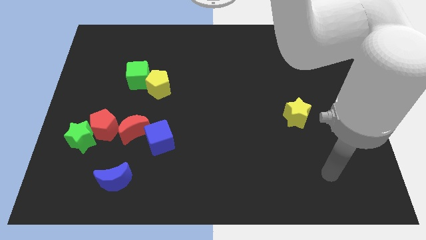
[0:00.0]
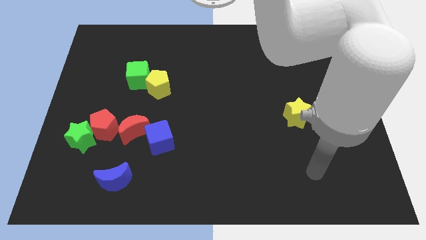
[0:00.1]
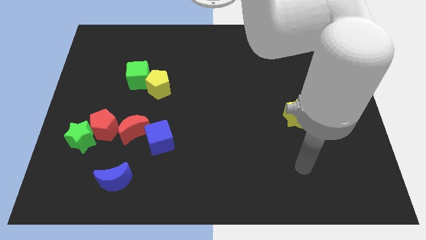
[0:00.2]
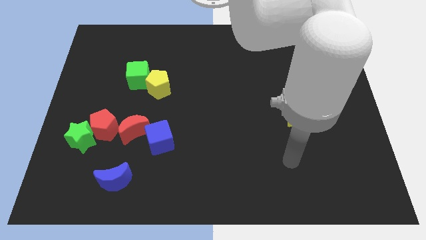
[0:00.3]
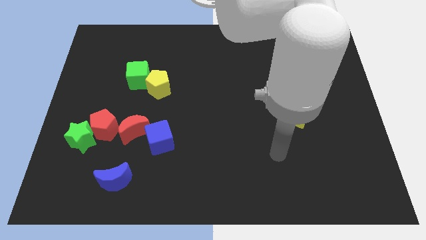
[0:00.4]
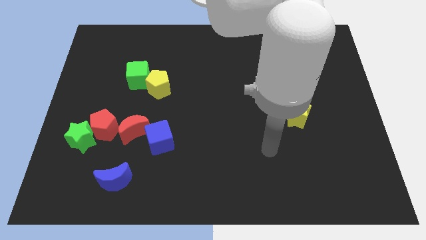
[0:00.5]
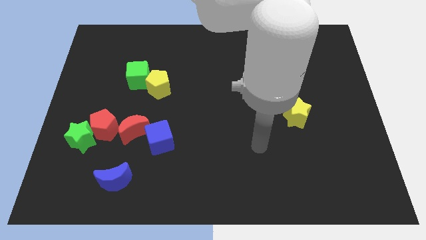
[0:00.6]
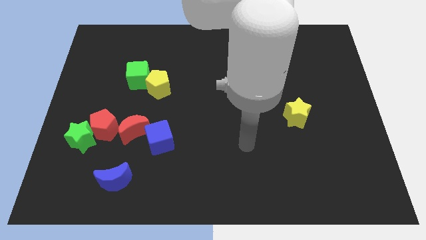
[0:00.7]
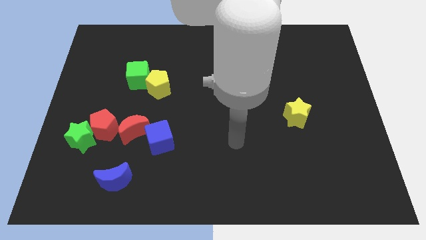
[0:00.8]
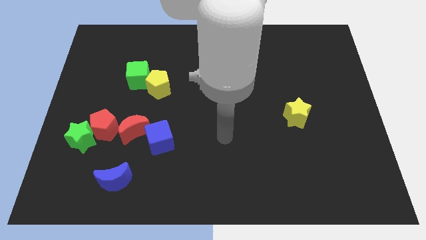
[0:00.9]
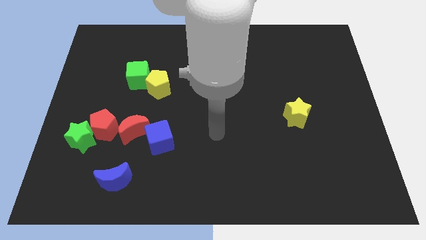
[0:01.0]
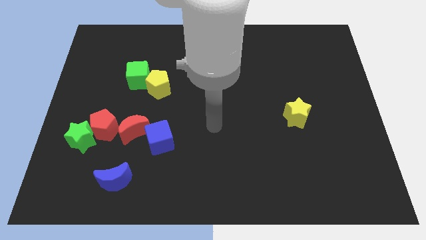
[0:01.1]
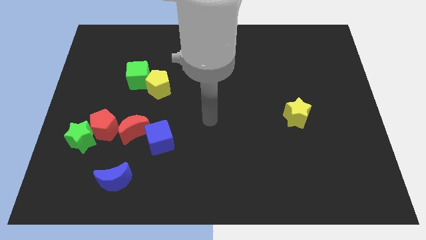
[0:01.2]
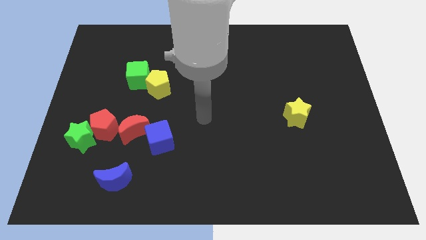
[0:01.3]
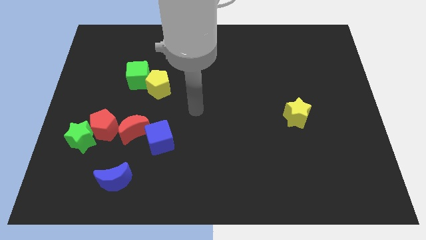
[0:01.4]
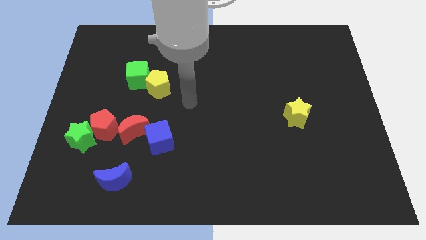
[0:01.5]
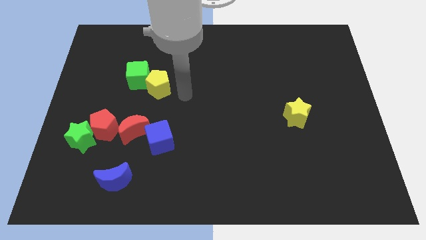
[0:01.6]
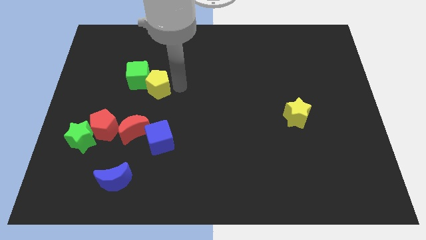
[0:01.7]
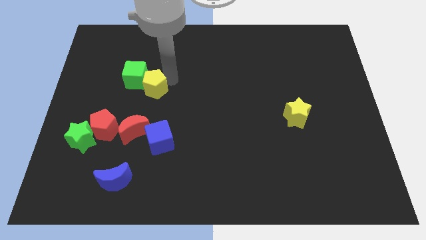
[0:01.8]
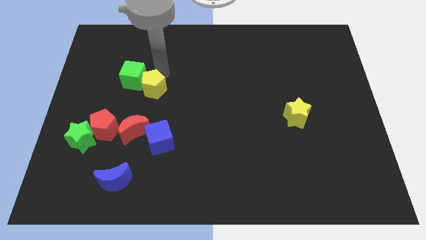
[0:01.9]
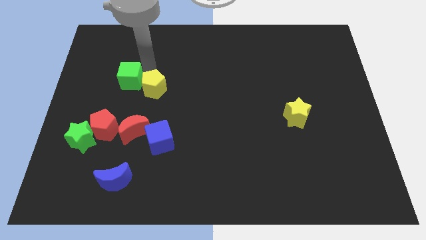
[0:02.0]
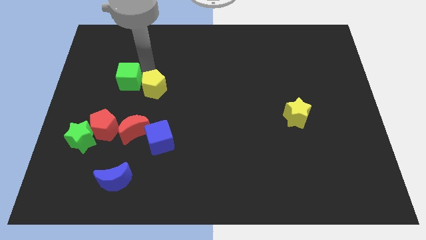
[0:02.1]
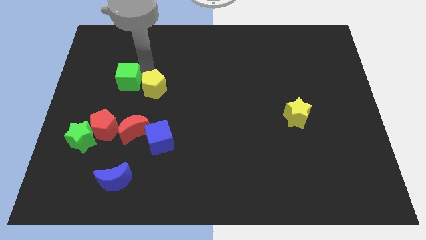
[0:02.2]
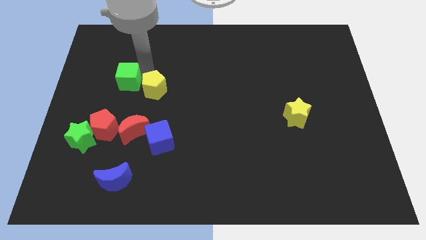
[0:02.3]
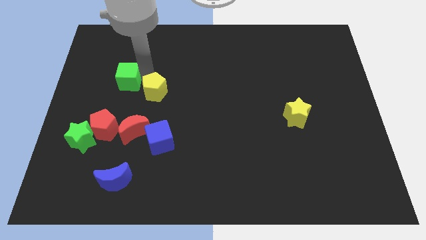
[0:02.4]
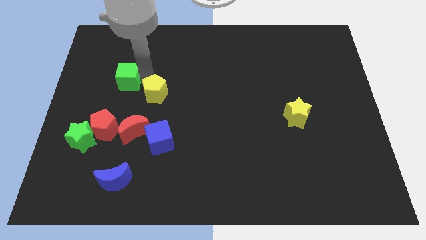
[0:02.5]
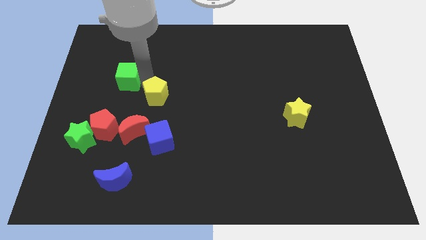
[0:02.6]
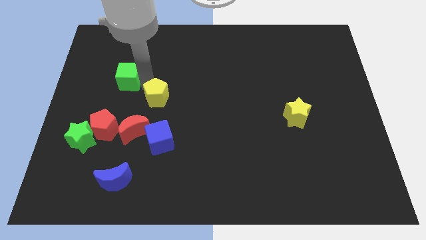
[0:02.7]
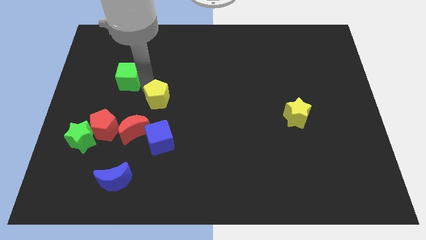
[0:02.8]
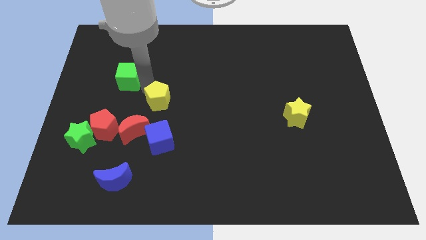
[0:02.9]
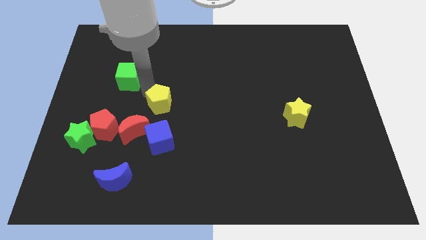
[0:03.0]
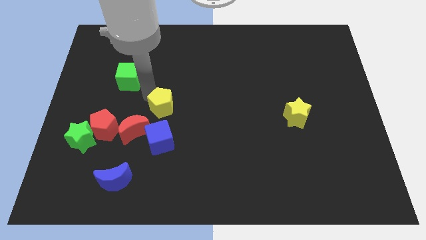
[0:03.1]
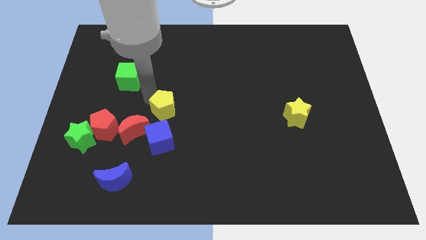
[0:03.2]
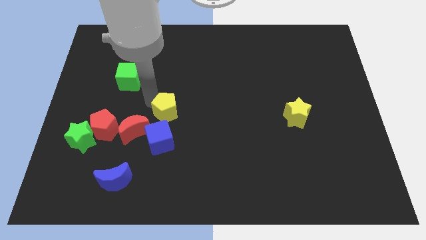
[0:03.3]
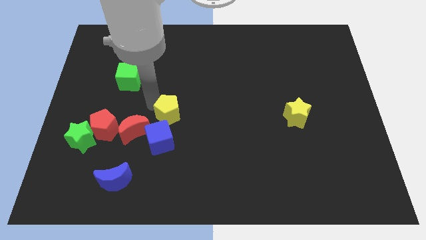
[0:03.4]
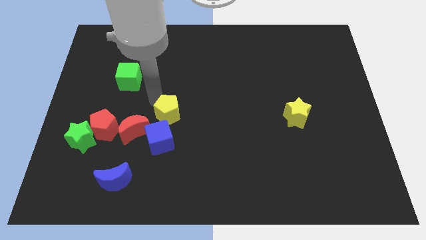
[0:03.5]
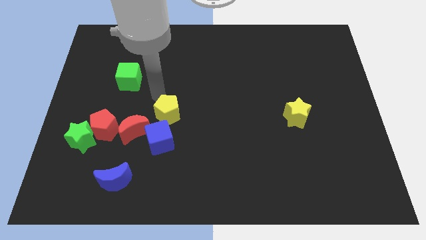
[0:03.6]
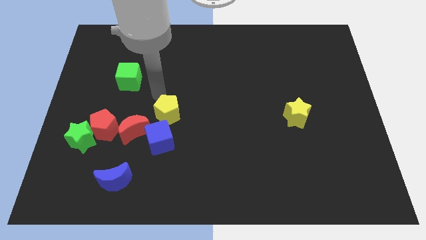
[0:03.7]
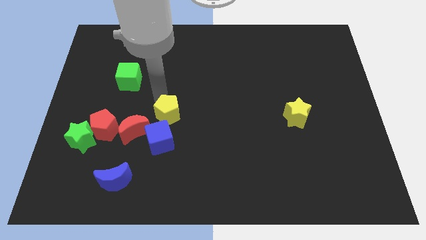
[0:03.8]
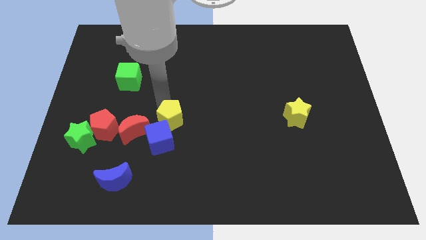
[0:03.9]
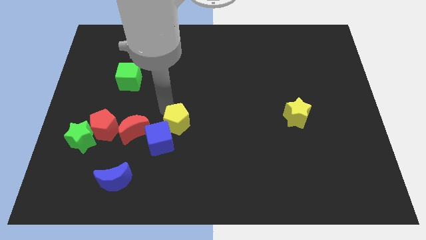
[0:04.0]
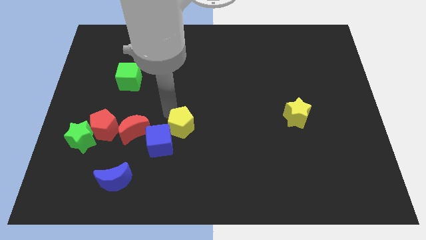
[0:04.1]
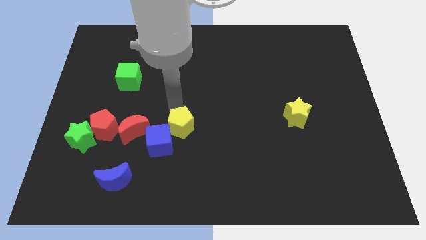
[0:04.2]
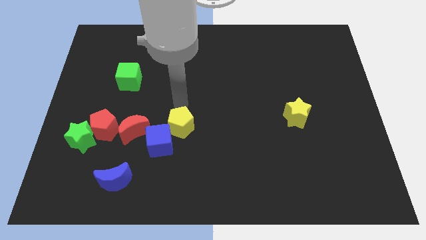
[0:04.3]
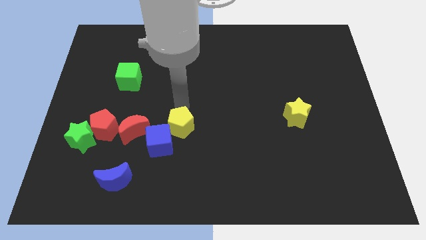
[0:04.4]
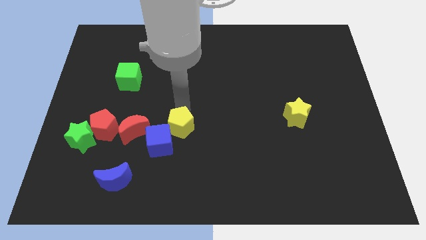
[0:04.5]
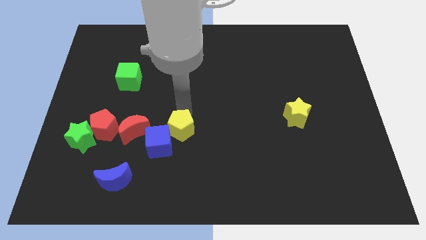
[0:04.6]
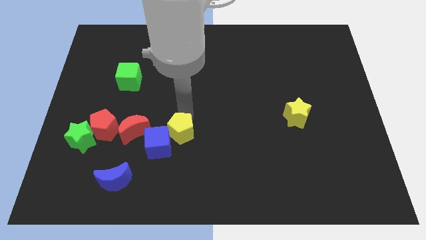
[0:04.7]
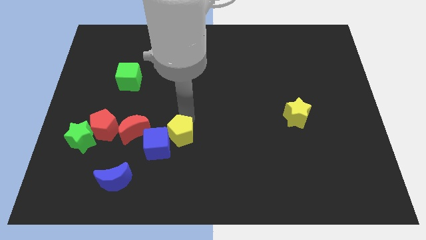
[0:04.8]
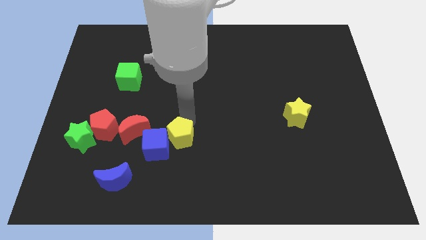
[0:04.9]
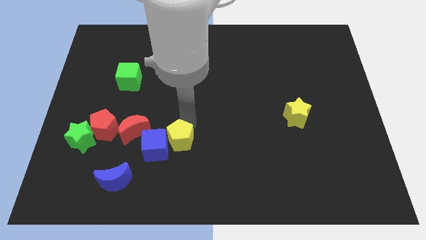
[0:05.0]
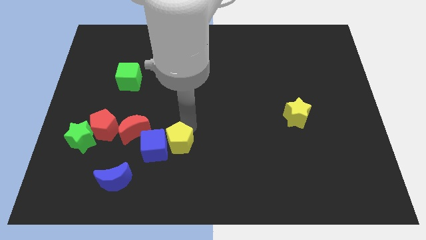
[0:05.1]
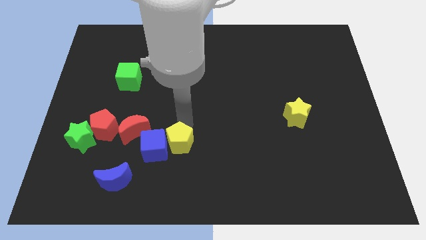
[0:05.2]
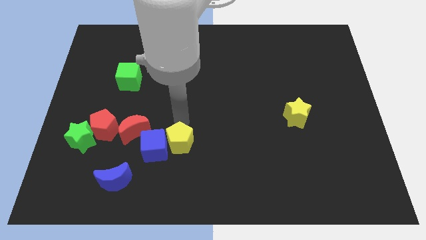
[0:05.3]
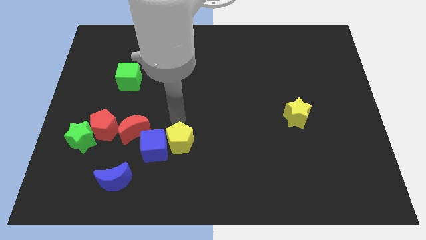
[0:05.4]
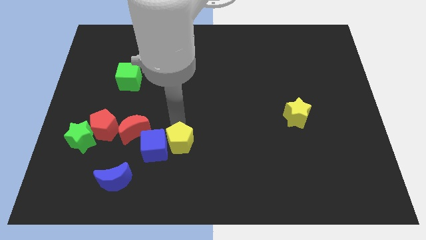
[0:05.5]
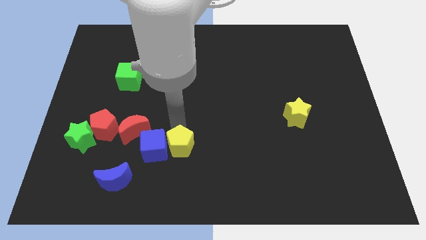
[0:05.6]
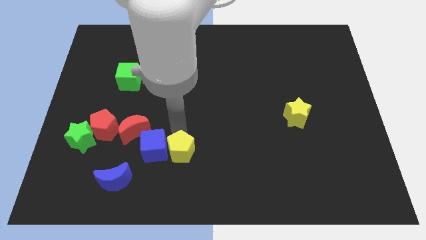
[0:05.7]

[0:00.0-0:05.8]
move the yellow pentagon to the bottom right side of the red moon

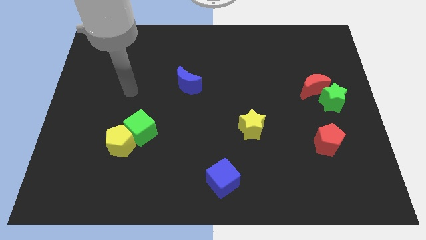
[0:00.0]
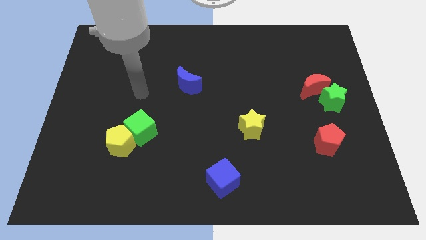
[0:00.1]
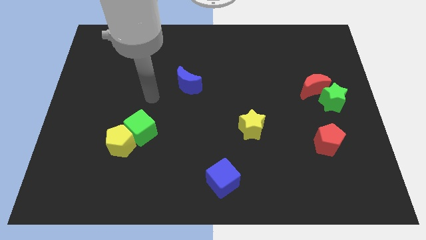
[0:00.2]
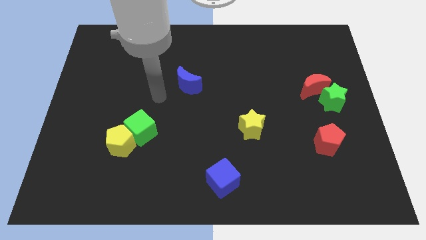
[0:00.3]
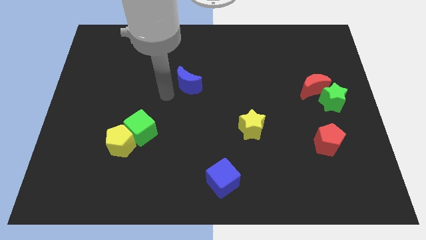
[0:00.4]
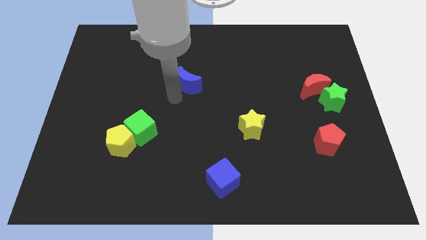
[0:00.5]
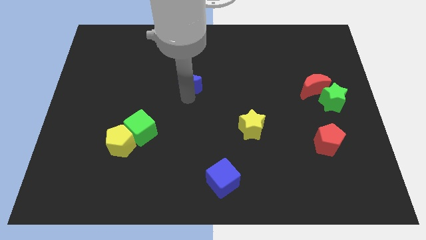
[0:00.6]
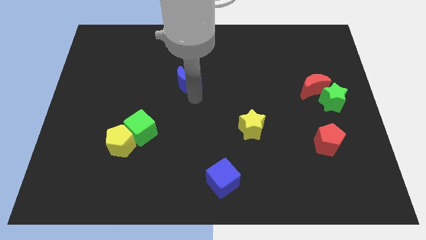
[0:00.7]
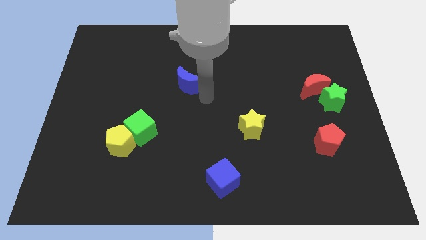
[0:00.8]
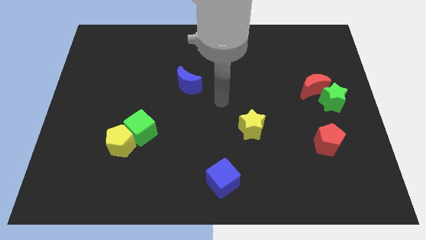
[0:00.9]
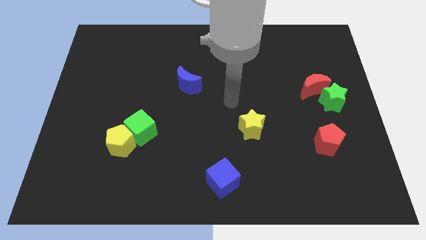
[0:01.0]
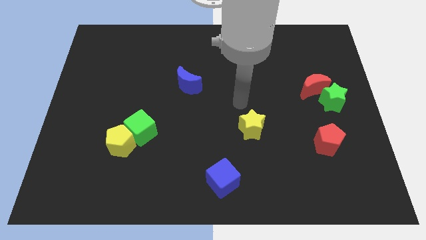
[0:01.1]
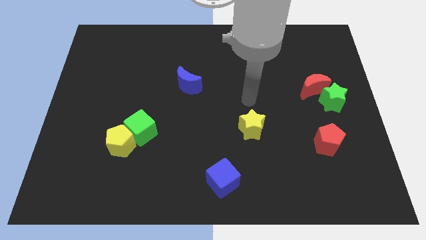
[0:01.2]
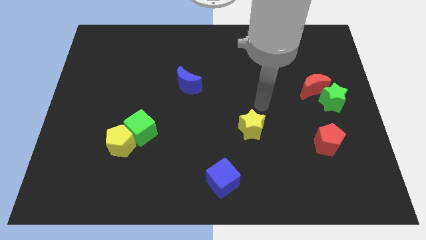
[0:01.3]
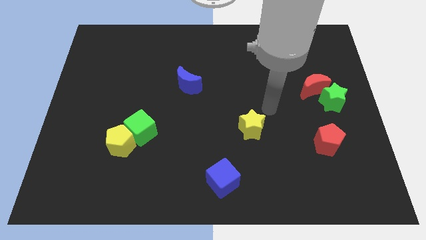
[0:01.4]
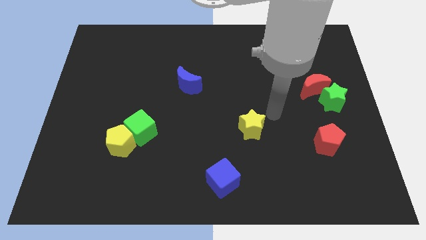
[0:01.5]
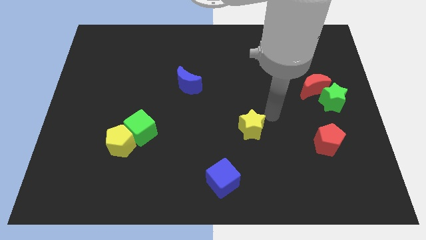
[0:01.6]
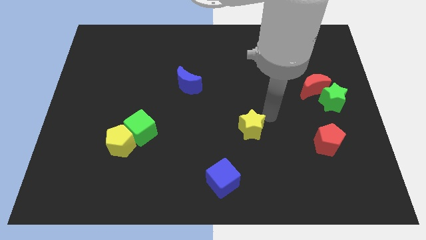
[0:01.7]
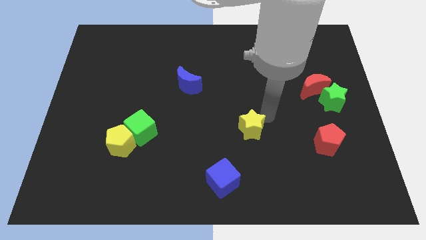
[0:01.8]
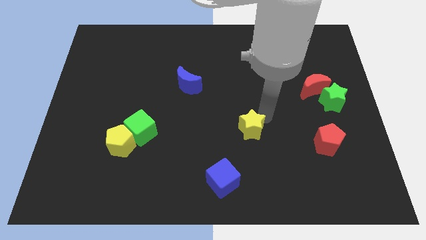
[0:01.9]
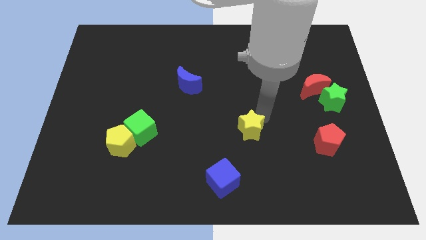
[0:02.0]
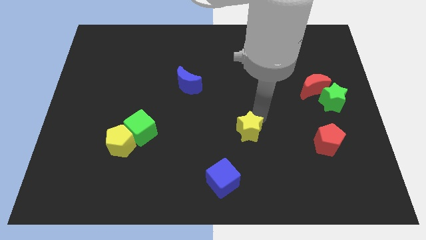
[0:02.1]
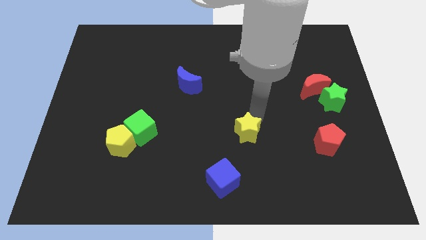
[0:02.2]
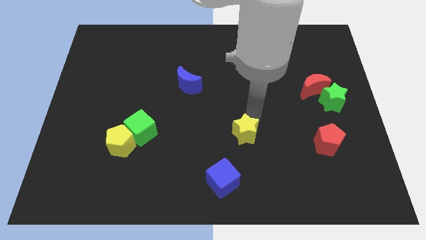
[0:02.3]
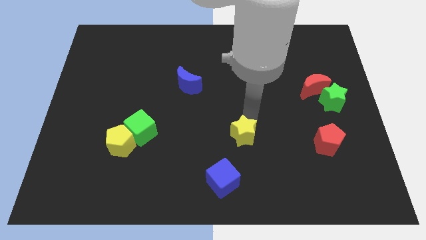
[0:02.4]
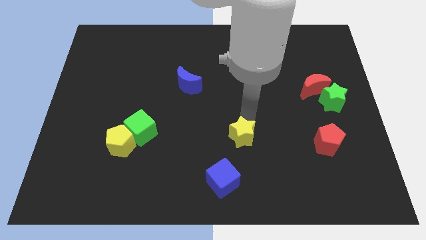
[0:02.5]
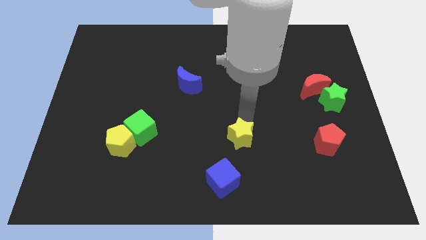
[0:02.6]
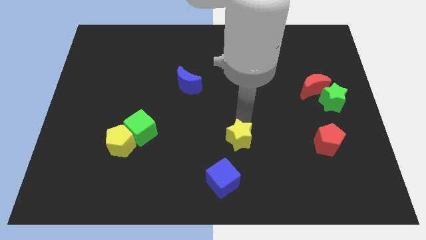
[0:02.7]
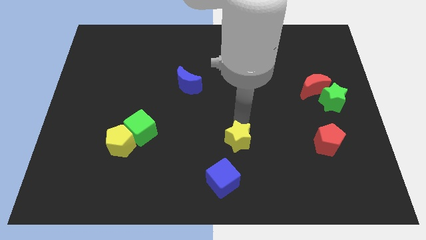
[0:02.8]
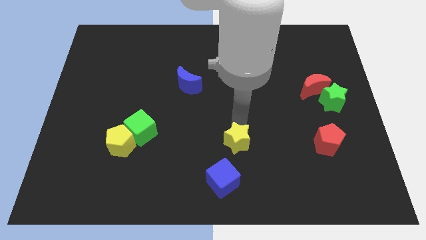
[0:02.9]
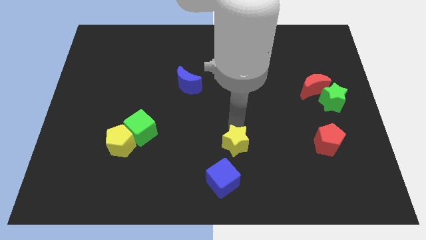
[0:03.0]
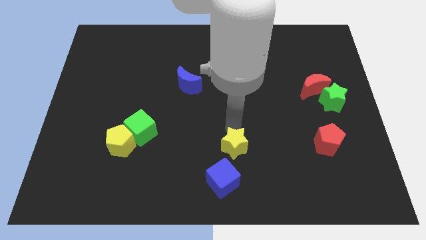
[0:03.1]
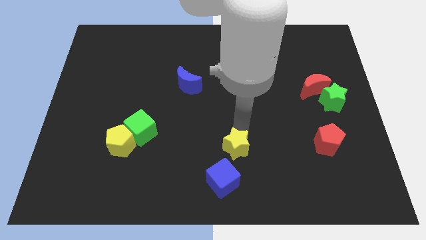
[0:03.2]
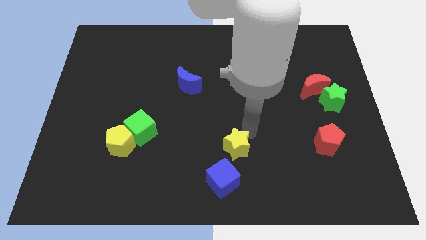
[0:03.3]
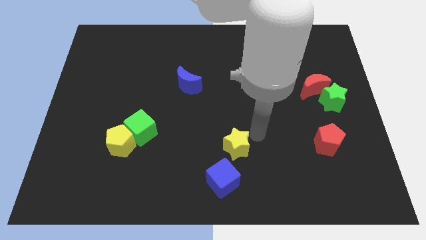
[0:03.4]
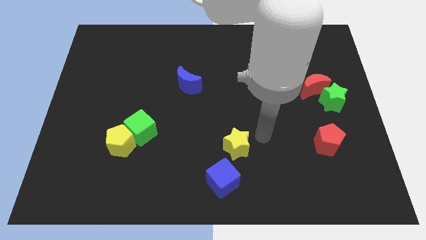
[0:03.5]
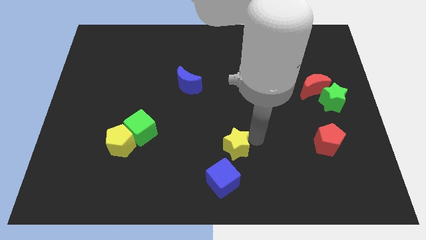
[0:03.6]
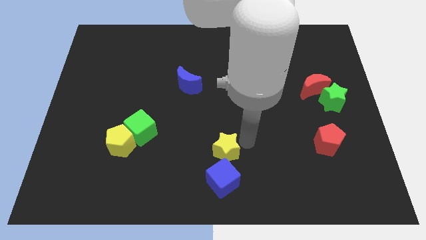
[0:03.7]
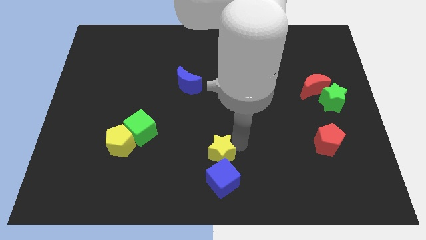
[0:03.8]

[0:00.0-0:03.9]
push the yellow star to the top left side of the blue cube
